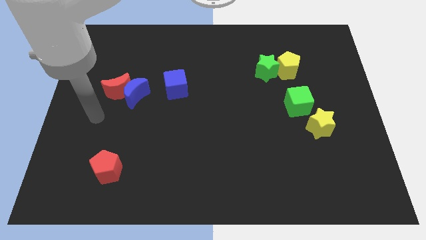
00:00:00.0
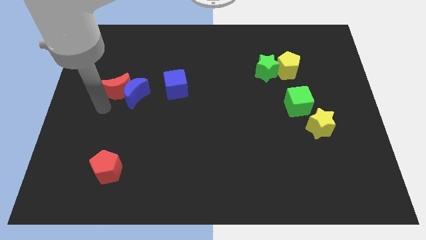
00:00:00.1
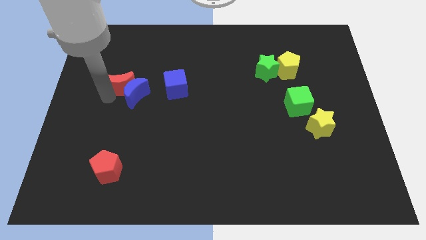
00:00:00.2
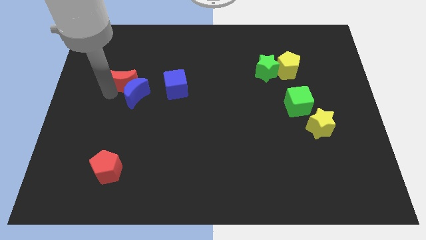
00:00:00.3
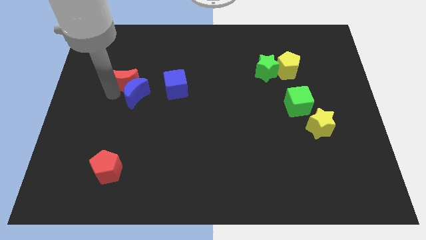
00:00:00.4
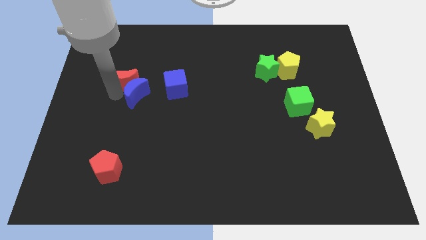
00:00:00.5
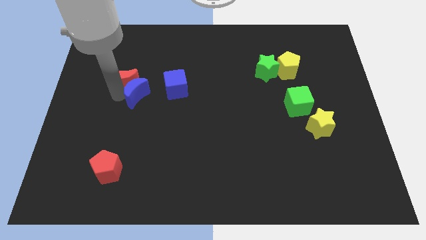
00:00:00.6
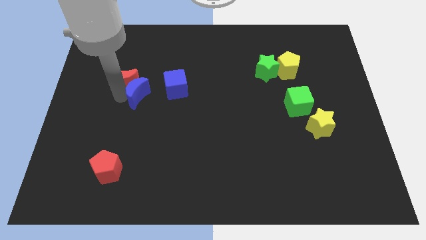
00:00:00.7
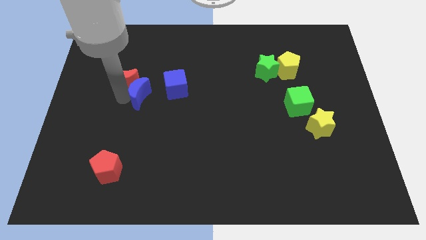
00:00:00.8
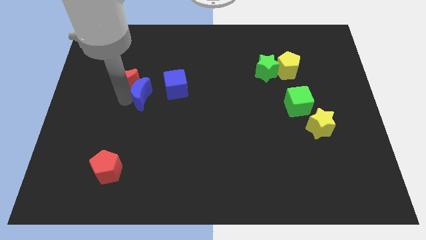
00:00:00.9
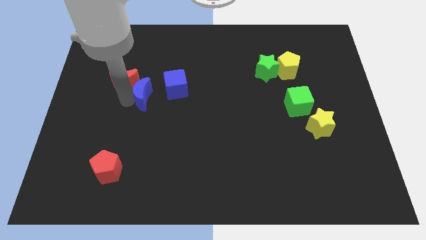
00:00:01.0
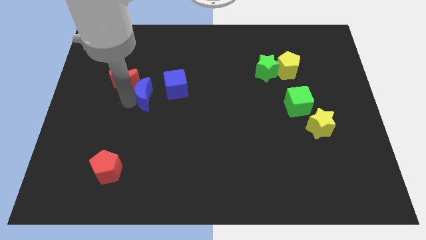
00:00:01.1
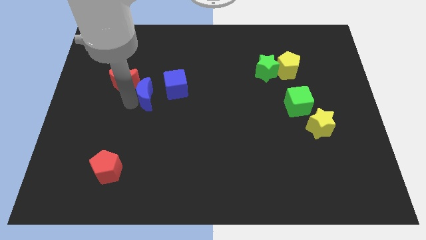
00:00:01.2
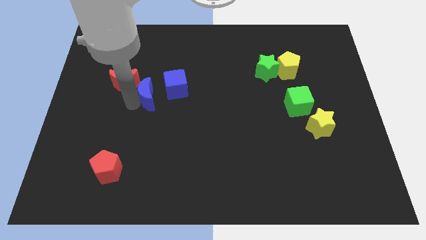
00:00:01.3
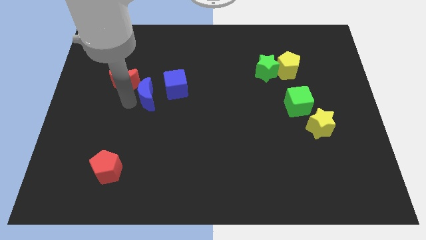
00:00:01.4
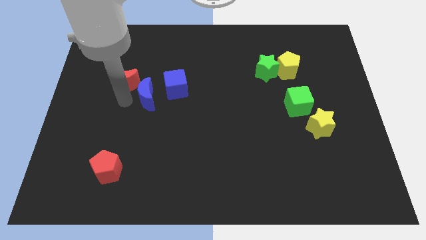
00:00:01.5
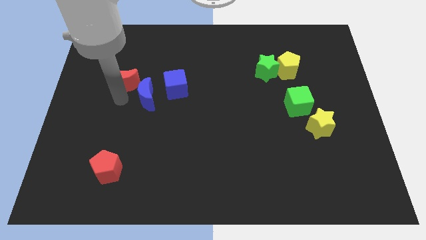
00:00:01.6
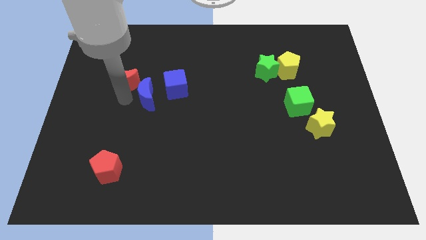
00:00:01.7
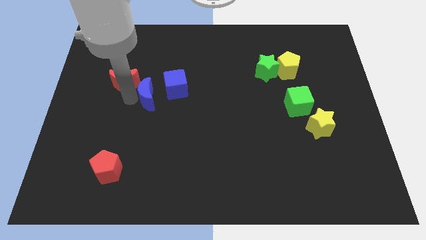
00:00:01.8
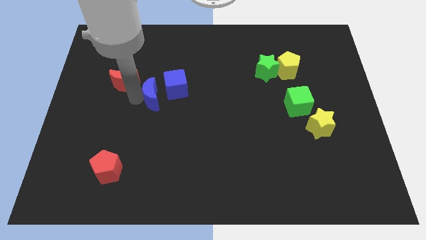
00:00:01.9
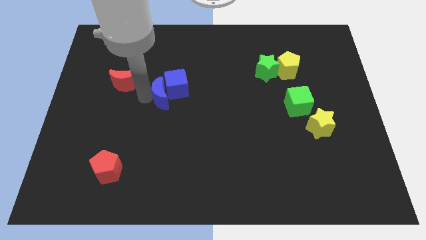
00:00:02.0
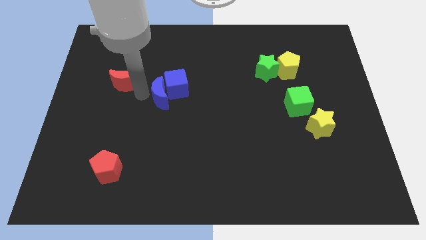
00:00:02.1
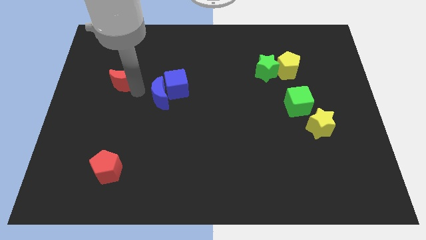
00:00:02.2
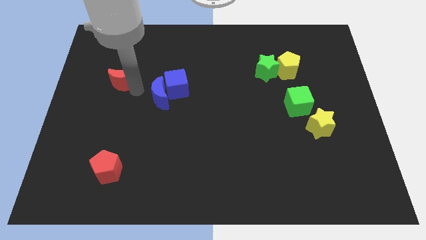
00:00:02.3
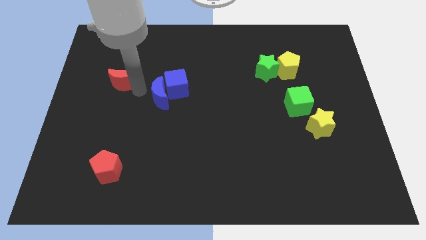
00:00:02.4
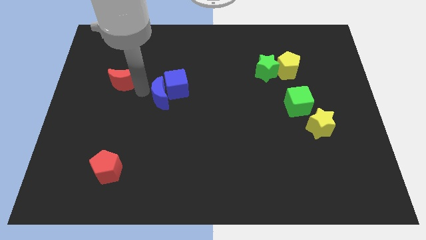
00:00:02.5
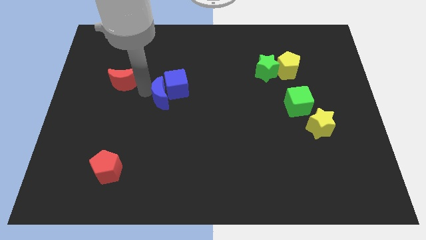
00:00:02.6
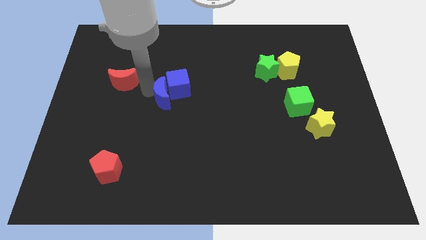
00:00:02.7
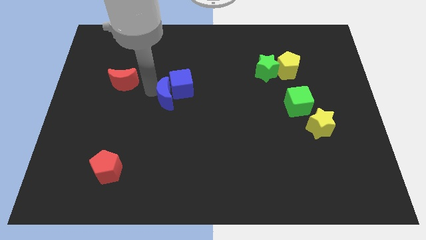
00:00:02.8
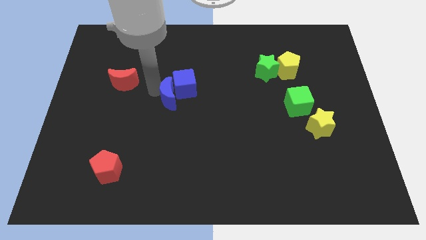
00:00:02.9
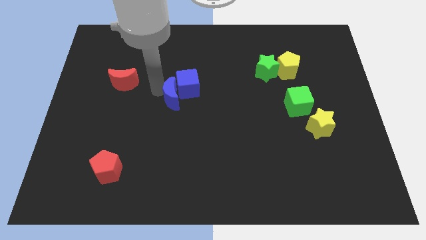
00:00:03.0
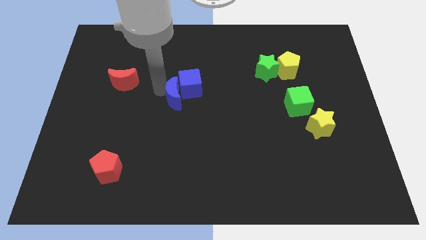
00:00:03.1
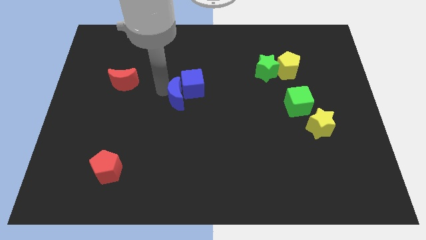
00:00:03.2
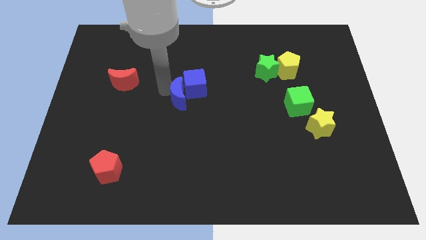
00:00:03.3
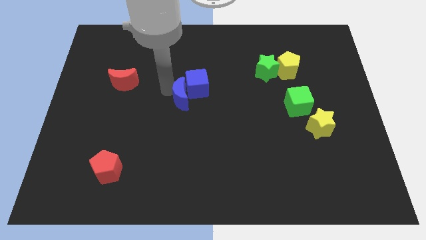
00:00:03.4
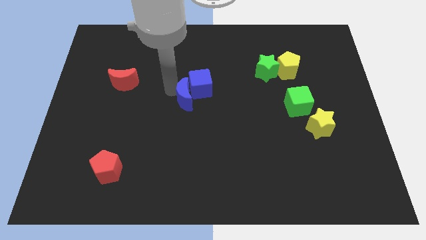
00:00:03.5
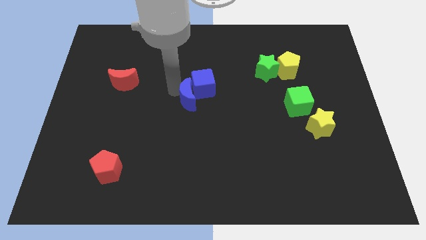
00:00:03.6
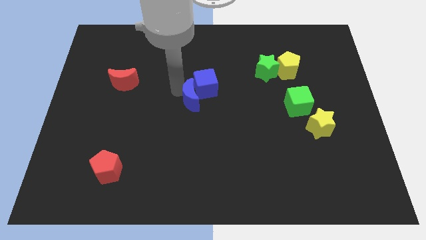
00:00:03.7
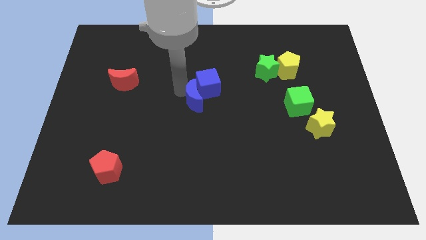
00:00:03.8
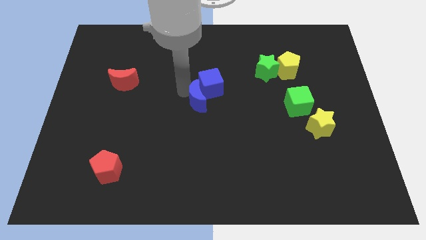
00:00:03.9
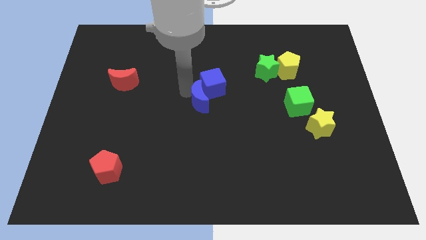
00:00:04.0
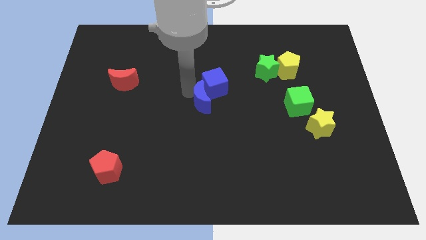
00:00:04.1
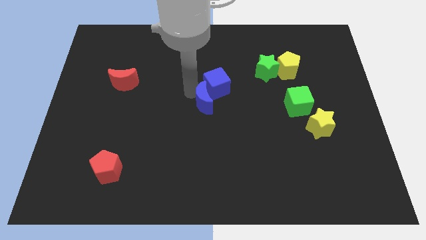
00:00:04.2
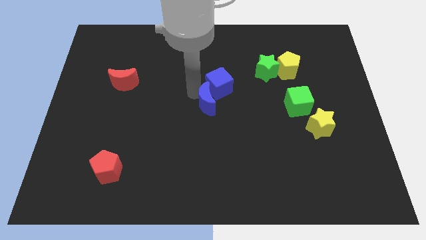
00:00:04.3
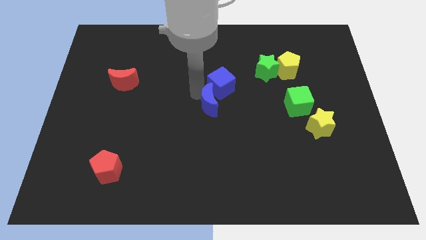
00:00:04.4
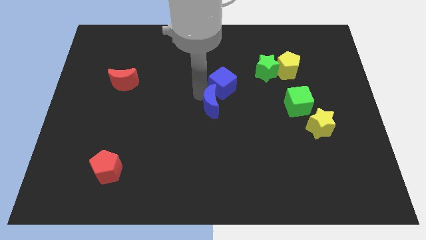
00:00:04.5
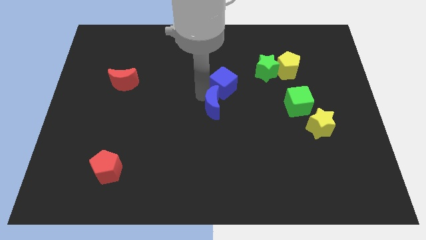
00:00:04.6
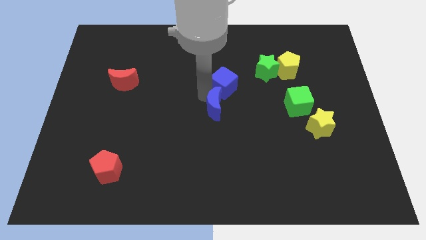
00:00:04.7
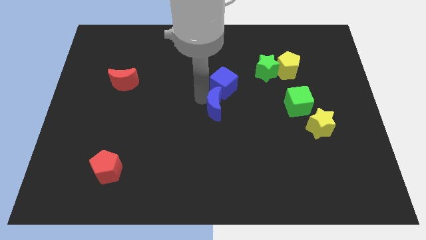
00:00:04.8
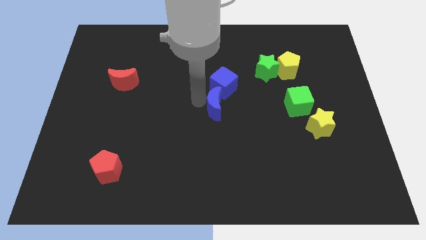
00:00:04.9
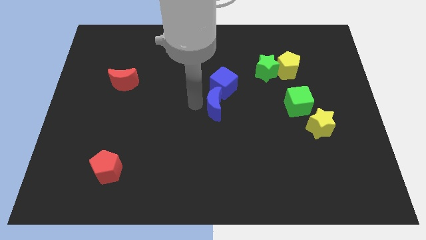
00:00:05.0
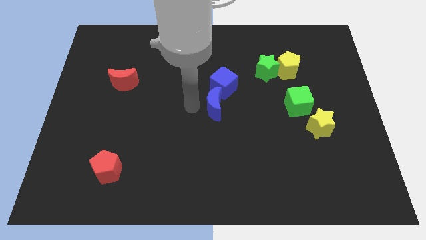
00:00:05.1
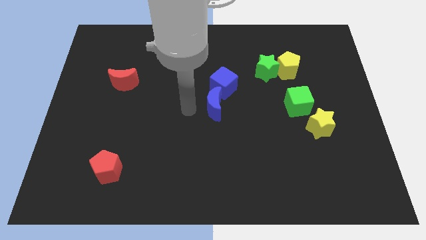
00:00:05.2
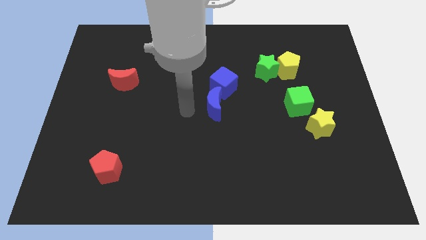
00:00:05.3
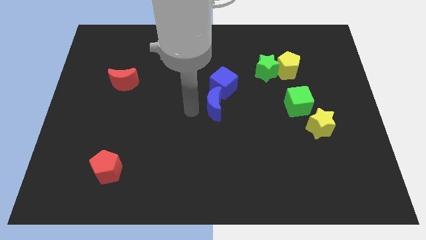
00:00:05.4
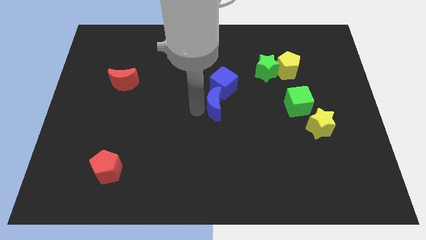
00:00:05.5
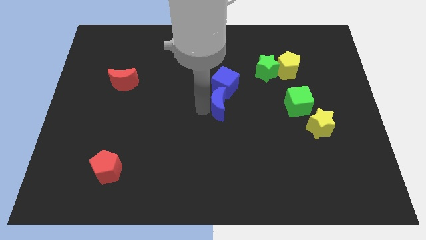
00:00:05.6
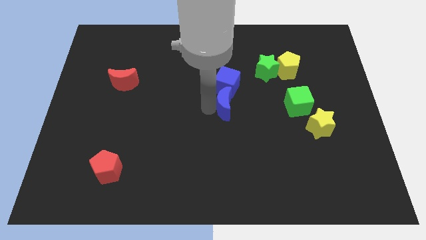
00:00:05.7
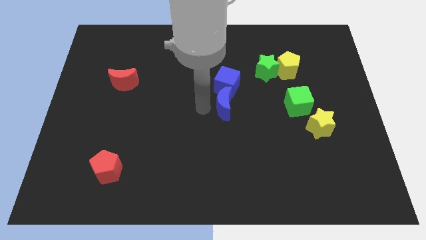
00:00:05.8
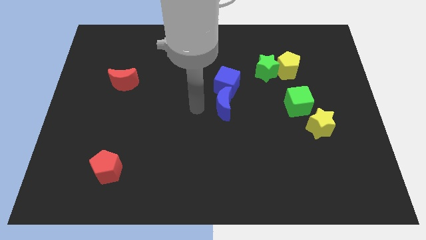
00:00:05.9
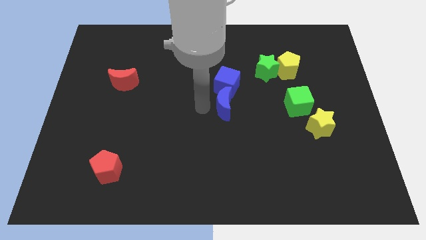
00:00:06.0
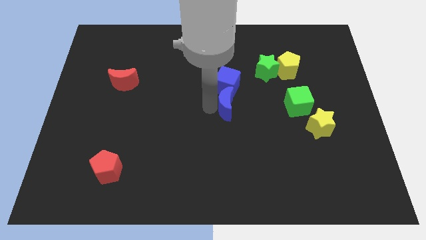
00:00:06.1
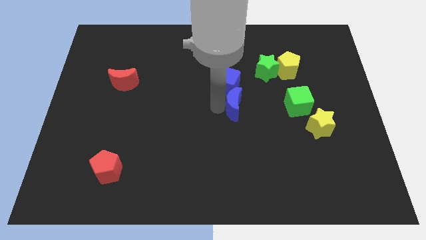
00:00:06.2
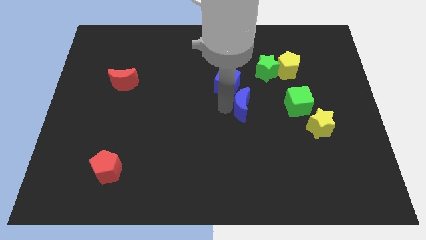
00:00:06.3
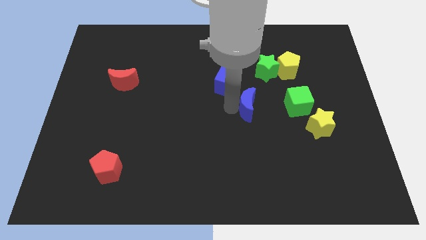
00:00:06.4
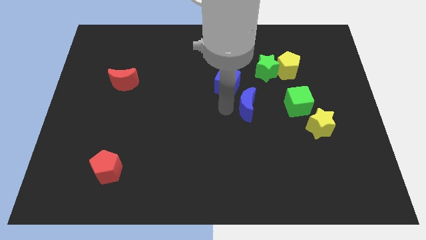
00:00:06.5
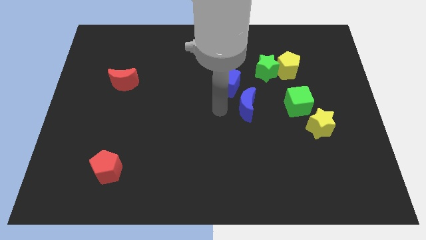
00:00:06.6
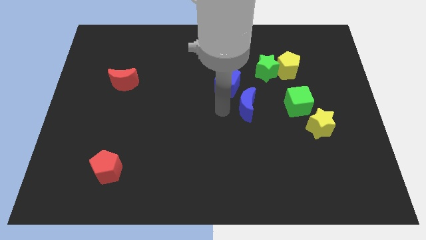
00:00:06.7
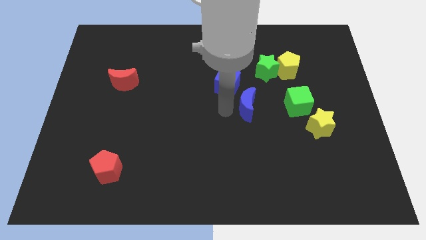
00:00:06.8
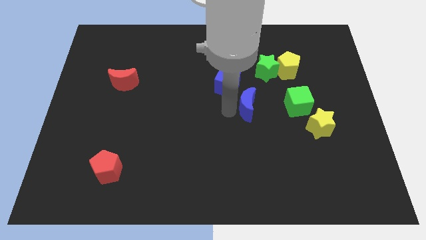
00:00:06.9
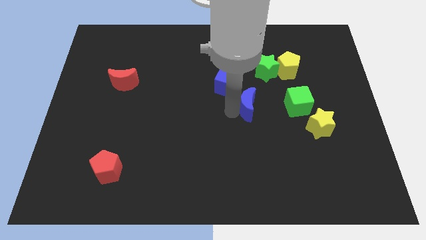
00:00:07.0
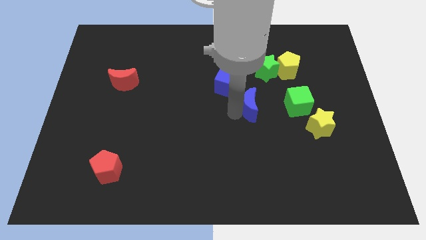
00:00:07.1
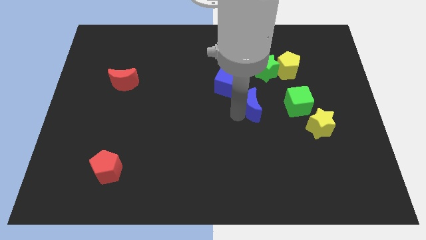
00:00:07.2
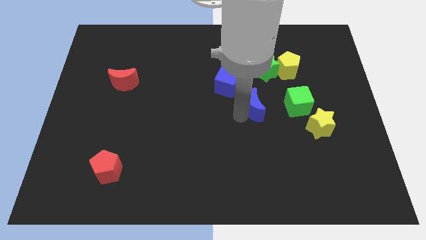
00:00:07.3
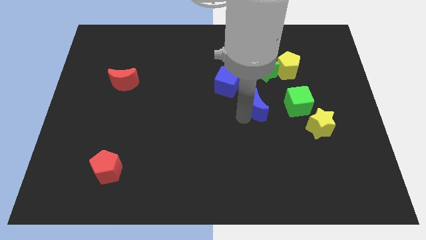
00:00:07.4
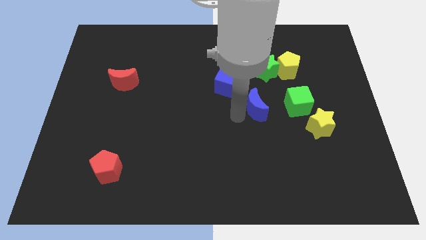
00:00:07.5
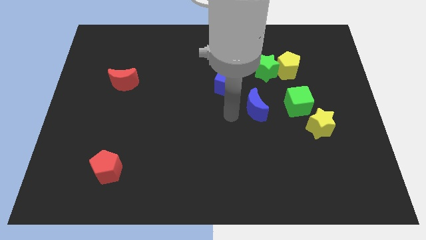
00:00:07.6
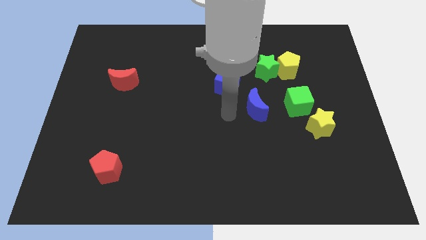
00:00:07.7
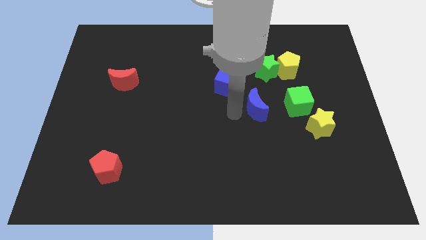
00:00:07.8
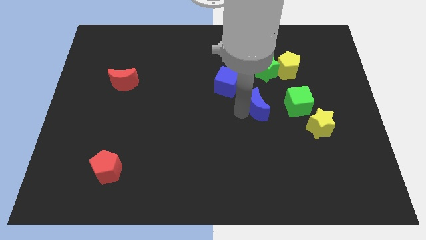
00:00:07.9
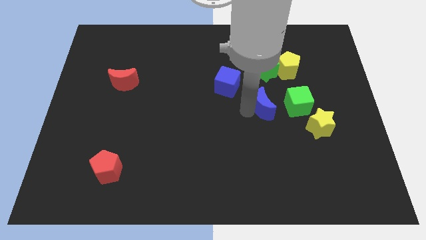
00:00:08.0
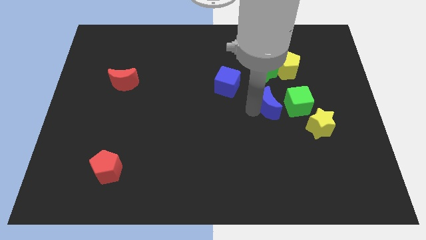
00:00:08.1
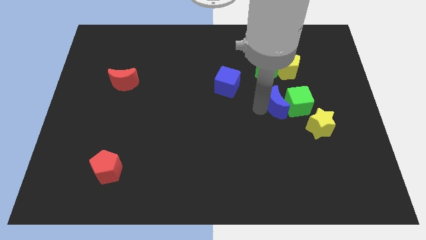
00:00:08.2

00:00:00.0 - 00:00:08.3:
move the blue moon to the green cube

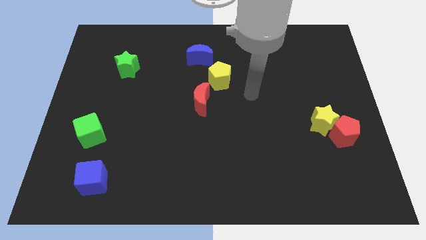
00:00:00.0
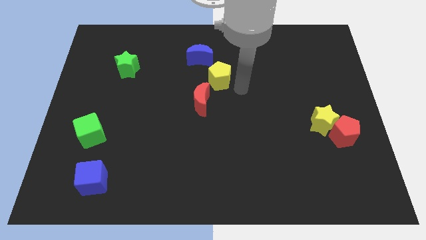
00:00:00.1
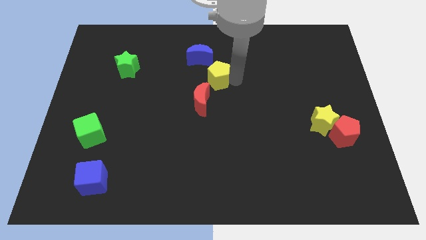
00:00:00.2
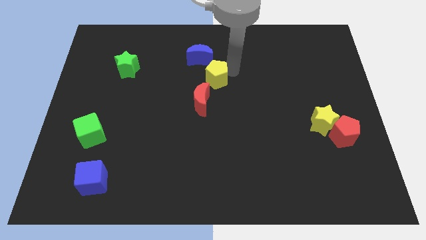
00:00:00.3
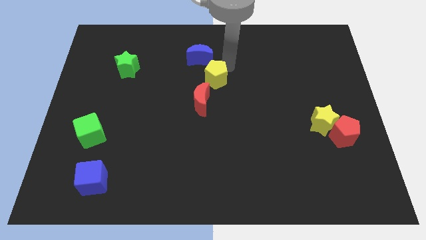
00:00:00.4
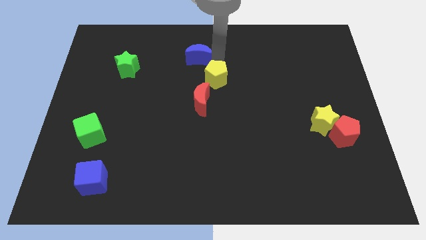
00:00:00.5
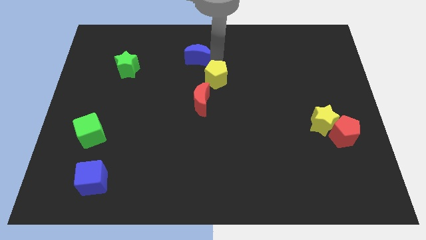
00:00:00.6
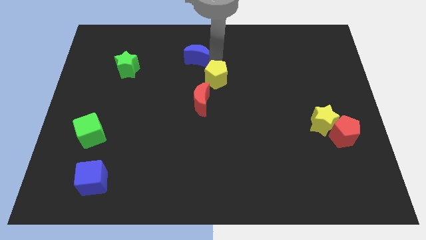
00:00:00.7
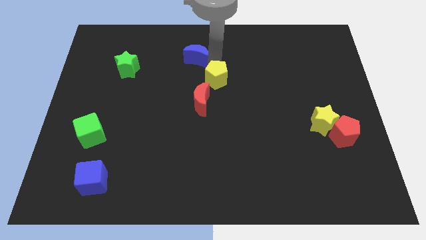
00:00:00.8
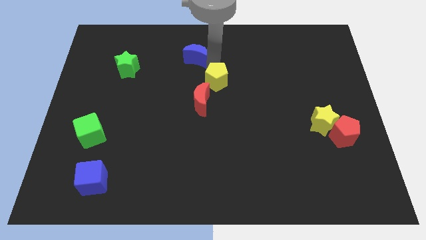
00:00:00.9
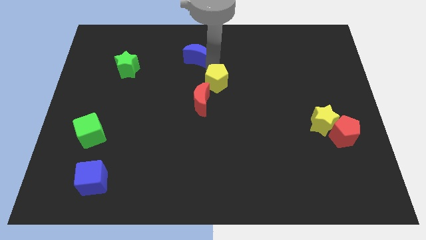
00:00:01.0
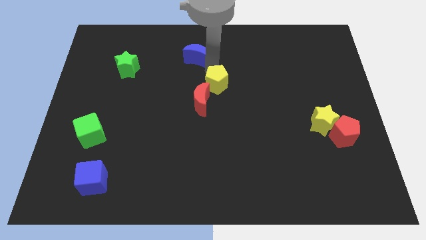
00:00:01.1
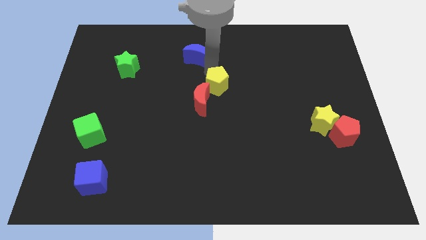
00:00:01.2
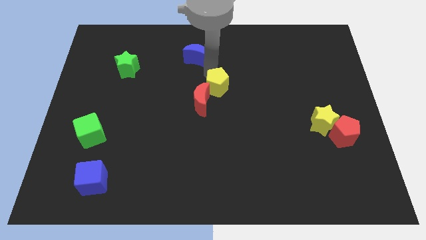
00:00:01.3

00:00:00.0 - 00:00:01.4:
put the yellow pentagon to the red moon
